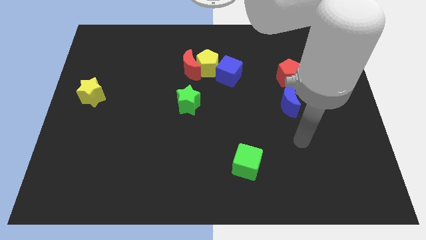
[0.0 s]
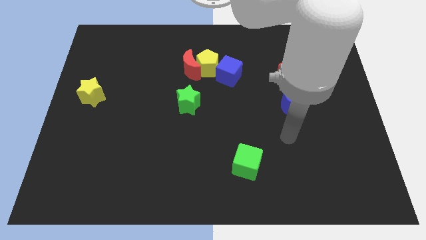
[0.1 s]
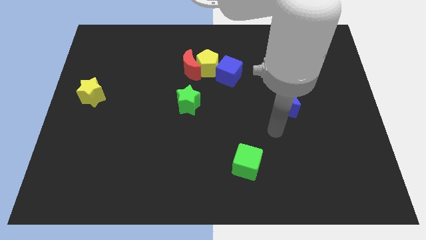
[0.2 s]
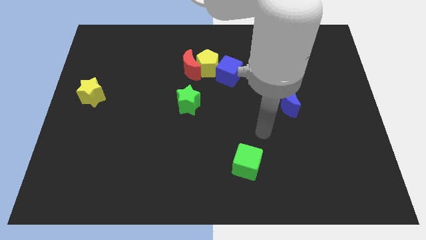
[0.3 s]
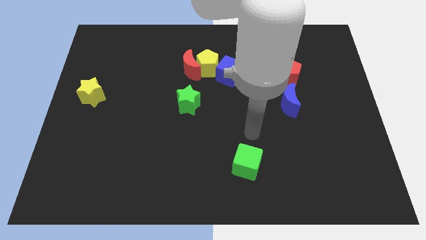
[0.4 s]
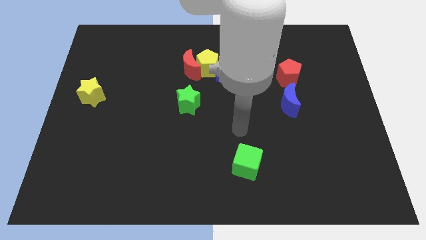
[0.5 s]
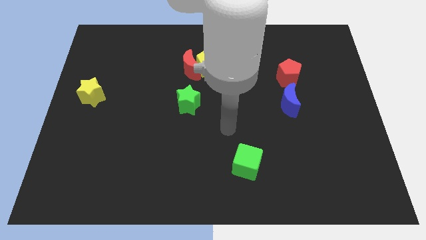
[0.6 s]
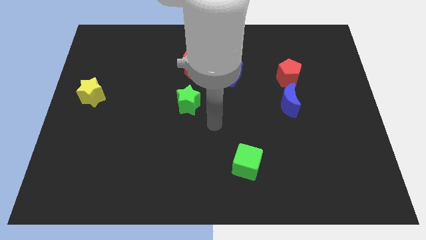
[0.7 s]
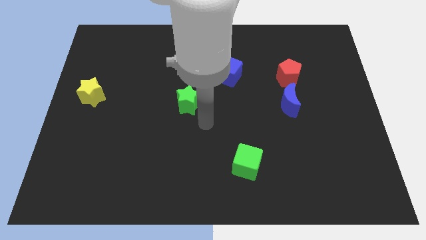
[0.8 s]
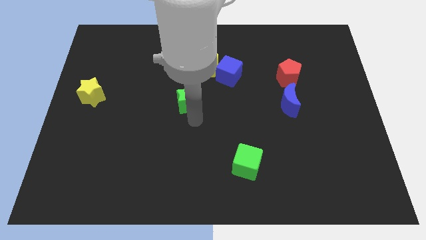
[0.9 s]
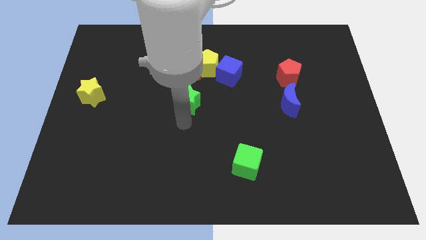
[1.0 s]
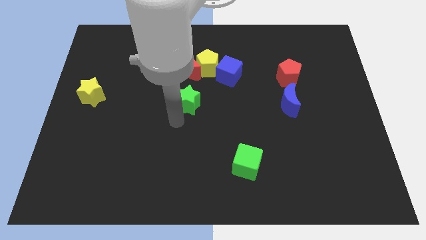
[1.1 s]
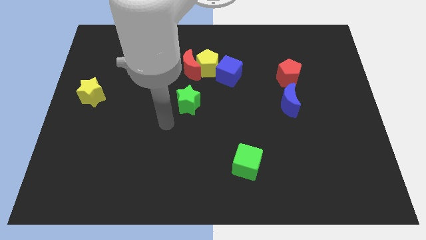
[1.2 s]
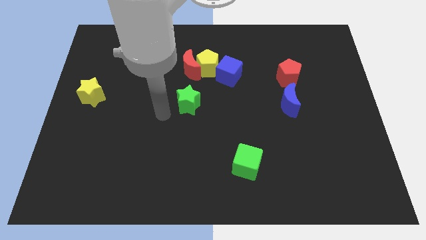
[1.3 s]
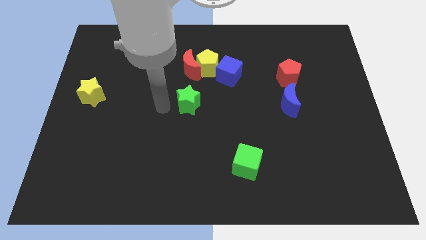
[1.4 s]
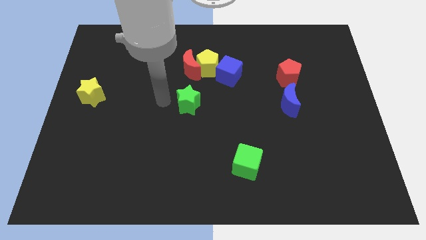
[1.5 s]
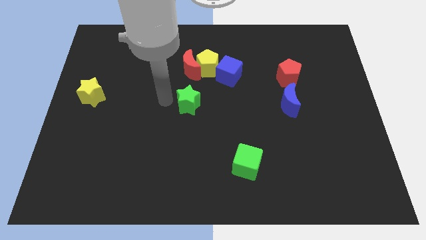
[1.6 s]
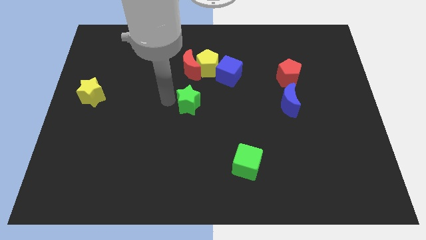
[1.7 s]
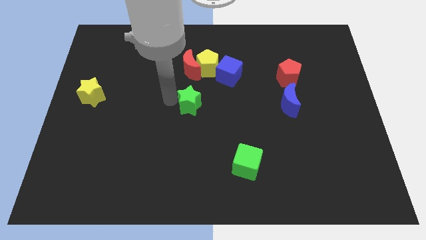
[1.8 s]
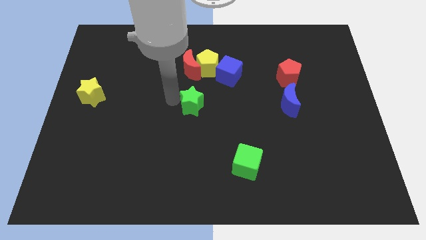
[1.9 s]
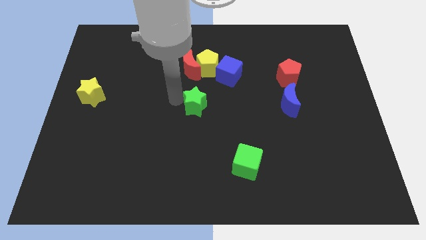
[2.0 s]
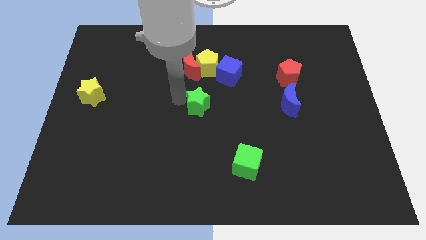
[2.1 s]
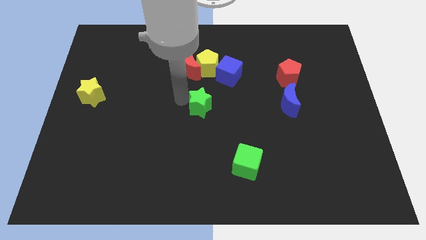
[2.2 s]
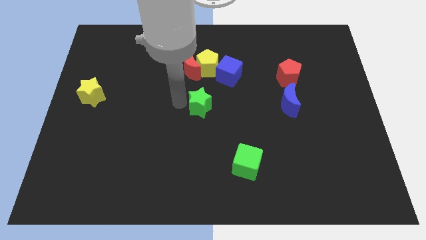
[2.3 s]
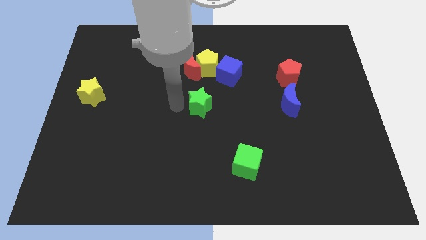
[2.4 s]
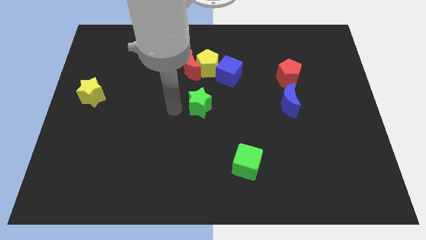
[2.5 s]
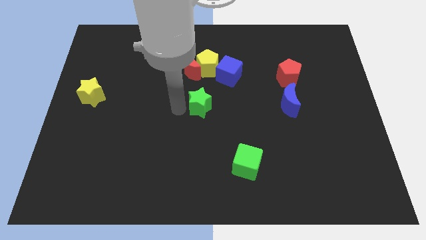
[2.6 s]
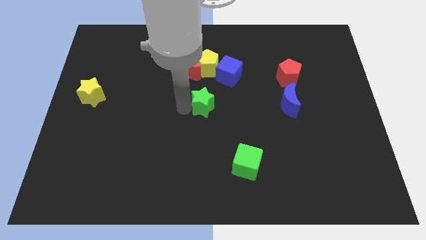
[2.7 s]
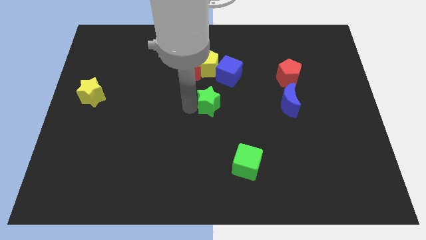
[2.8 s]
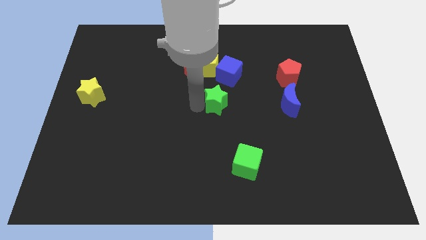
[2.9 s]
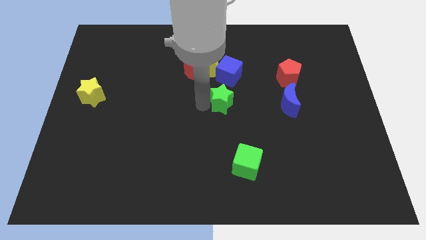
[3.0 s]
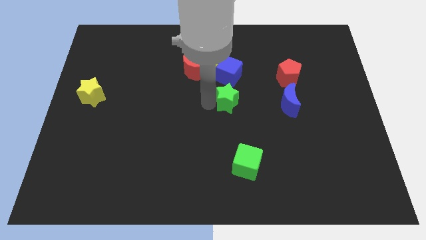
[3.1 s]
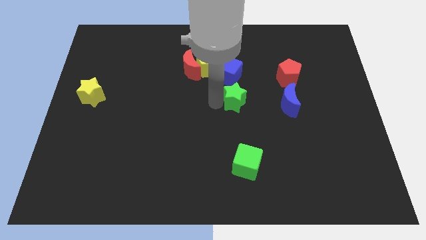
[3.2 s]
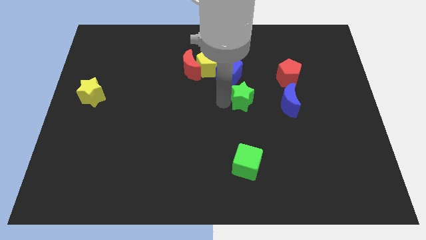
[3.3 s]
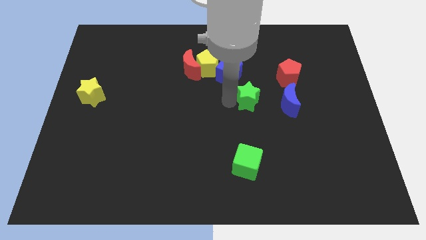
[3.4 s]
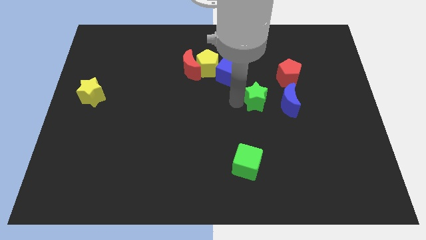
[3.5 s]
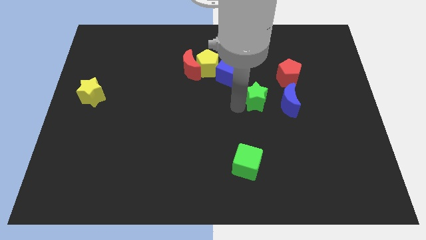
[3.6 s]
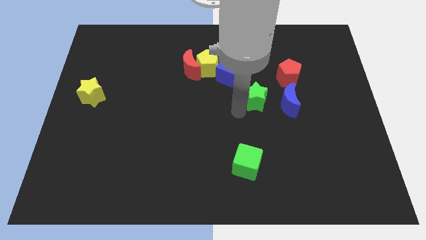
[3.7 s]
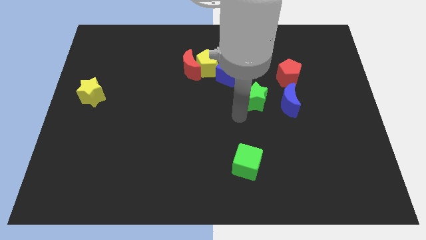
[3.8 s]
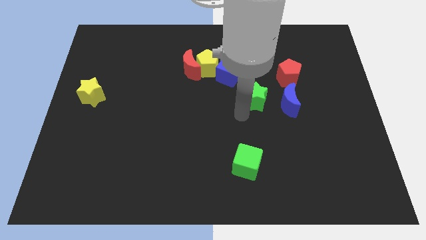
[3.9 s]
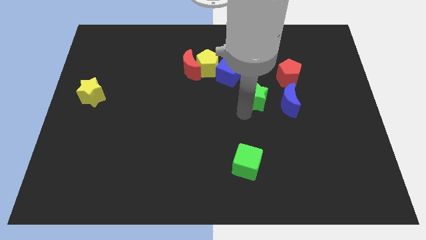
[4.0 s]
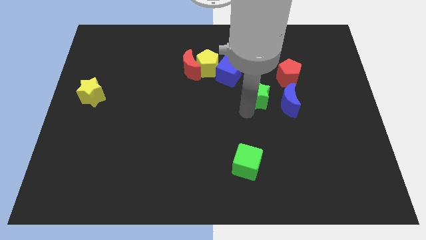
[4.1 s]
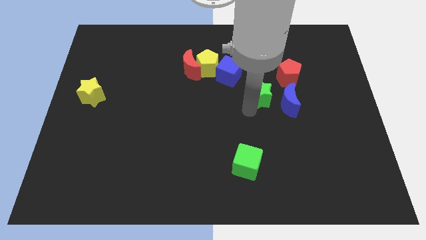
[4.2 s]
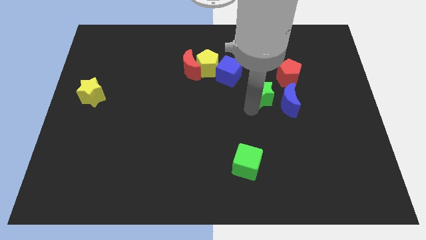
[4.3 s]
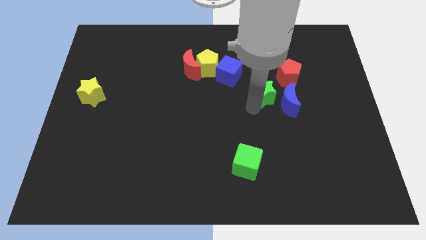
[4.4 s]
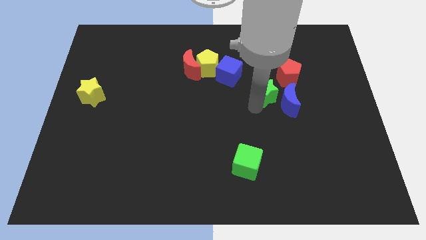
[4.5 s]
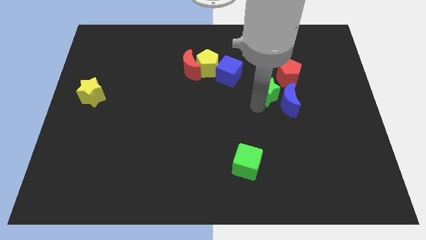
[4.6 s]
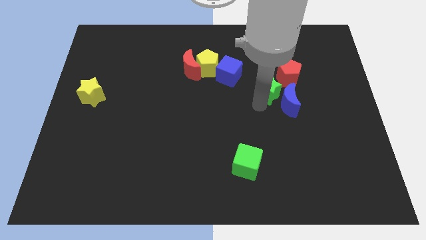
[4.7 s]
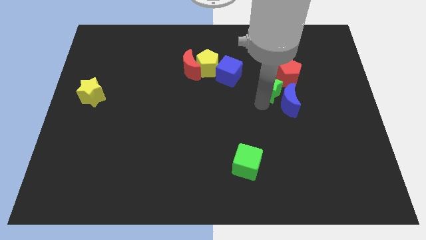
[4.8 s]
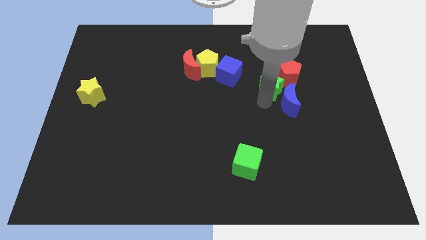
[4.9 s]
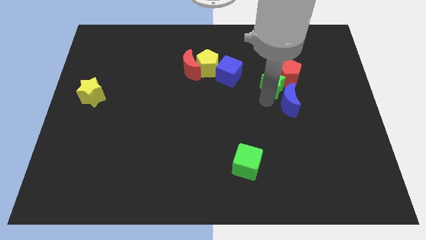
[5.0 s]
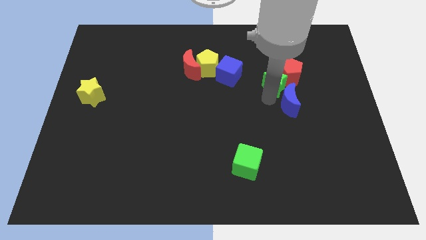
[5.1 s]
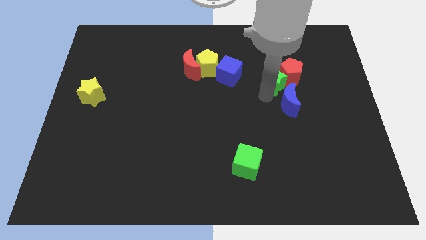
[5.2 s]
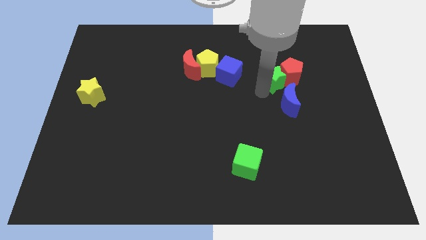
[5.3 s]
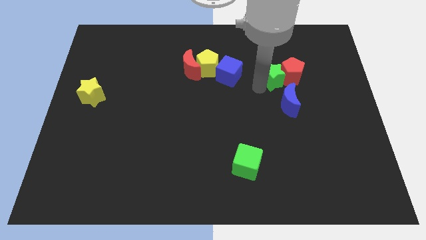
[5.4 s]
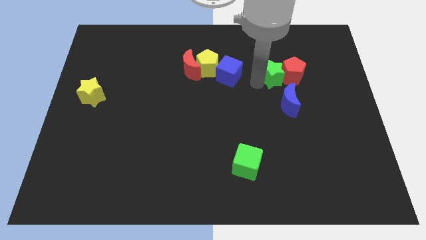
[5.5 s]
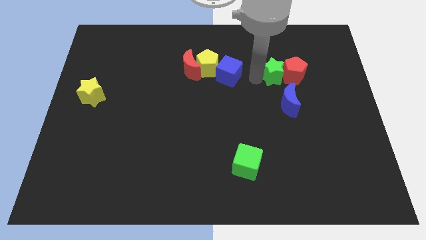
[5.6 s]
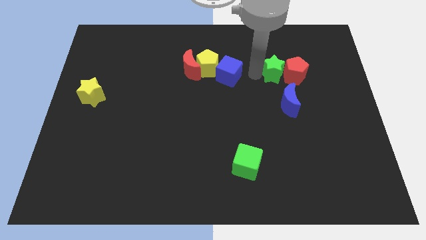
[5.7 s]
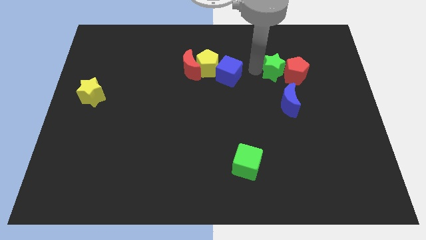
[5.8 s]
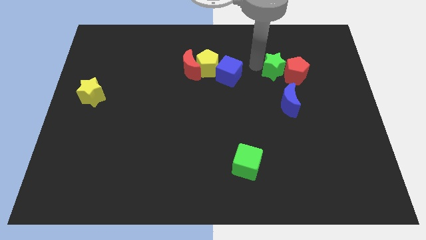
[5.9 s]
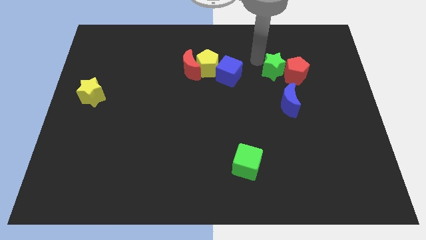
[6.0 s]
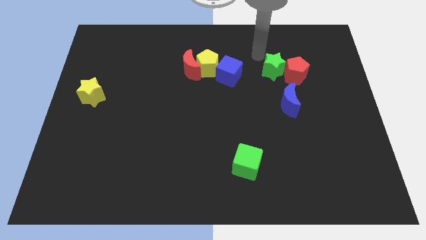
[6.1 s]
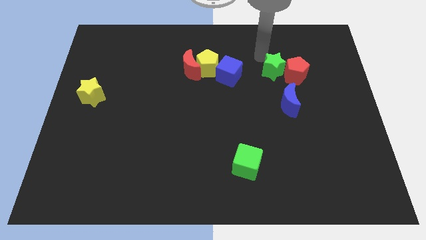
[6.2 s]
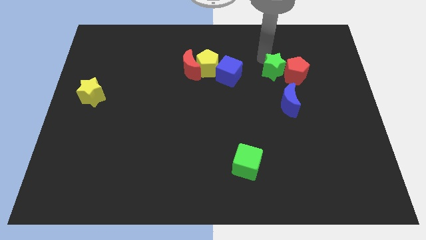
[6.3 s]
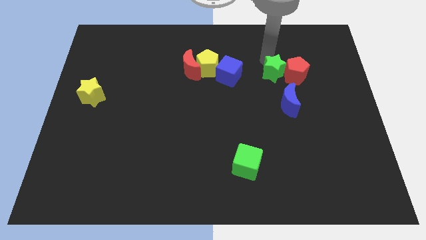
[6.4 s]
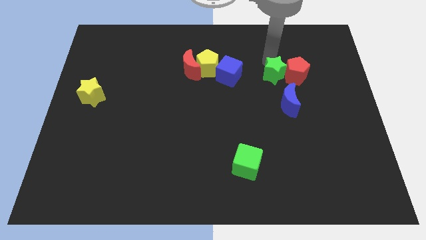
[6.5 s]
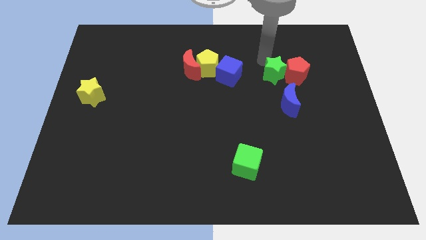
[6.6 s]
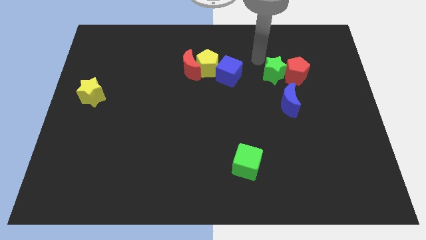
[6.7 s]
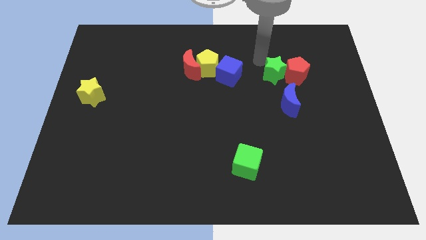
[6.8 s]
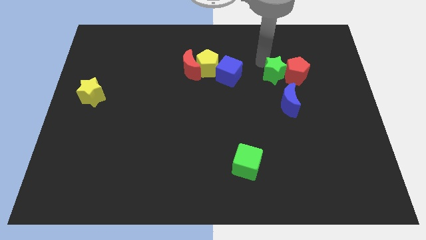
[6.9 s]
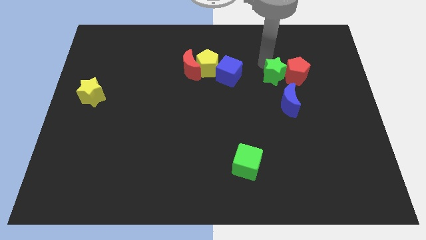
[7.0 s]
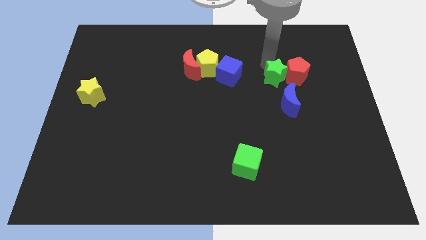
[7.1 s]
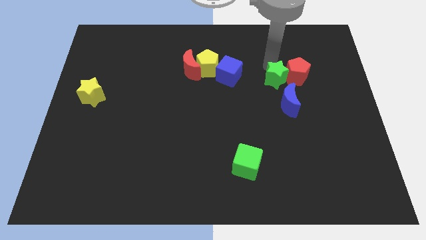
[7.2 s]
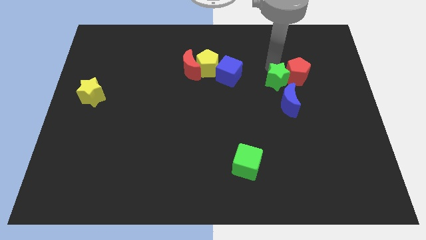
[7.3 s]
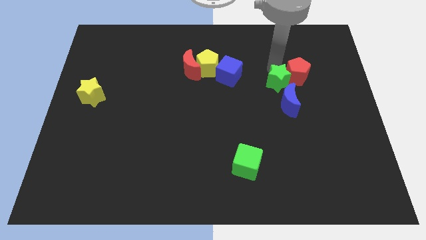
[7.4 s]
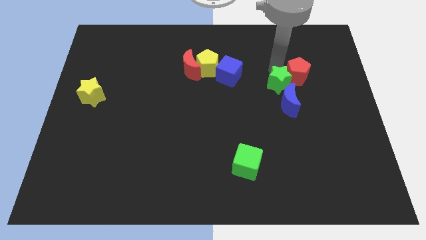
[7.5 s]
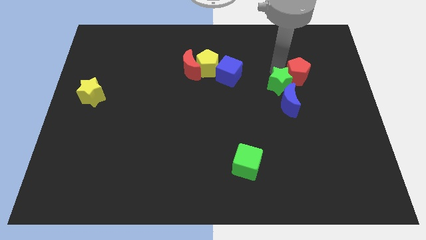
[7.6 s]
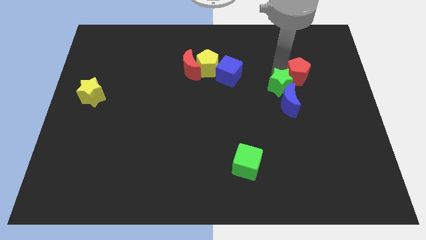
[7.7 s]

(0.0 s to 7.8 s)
slide the green star diagonally up and to the right of the blue moon
